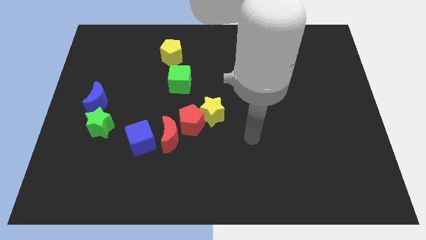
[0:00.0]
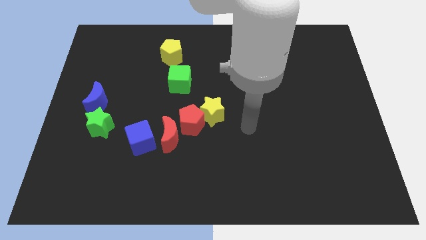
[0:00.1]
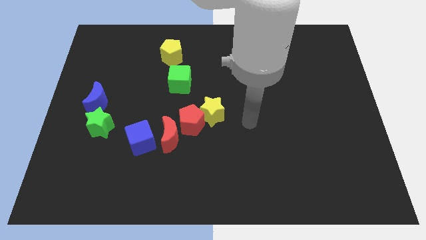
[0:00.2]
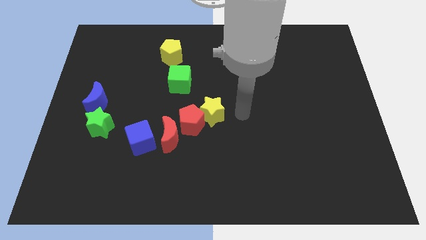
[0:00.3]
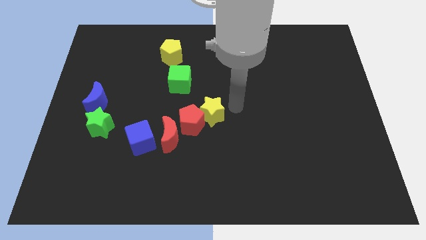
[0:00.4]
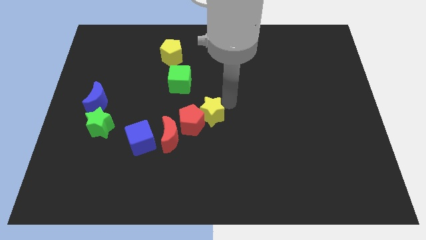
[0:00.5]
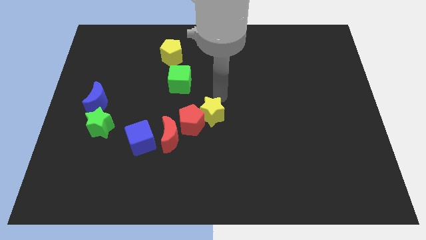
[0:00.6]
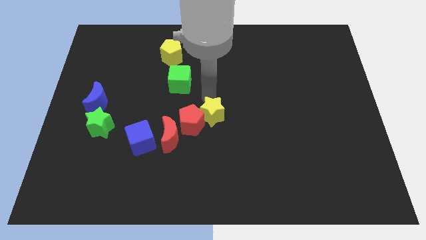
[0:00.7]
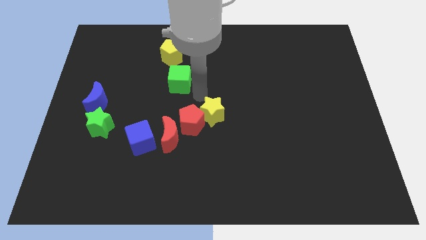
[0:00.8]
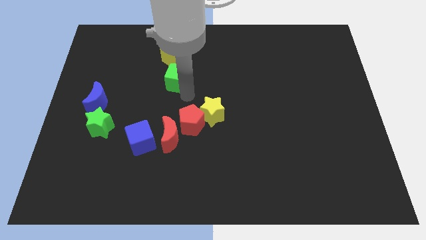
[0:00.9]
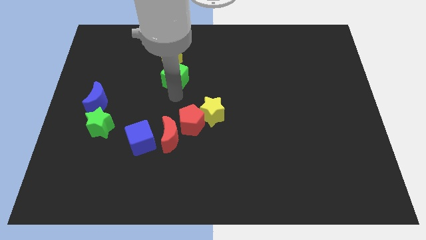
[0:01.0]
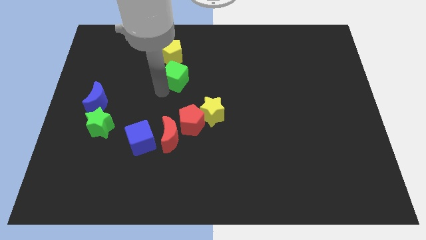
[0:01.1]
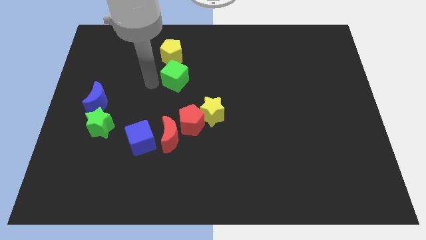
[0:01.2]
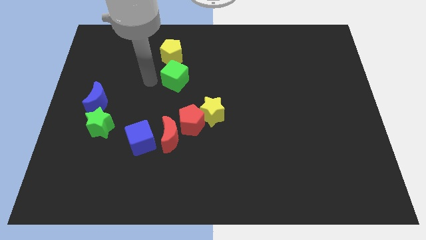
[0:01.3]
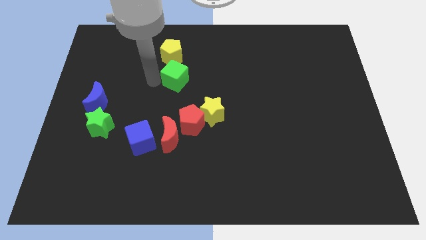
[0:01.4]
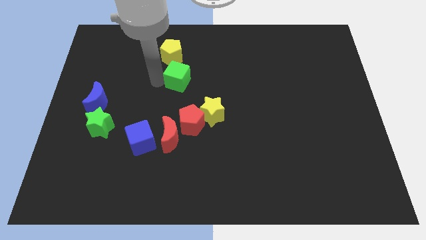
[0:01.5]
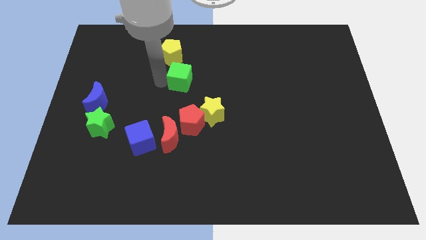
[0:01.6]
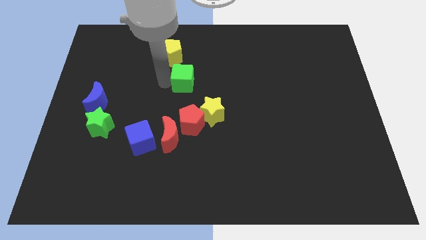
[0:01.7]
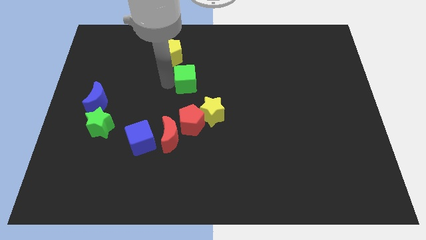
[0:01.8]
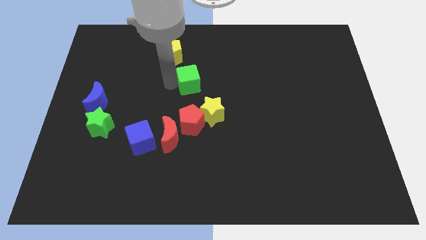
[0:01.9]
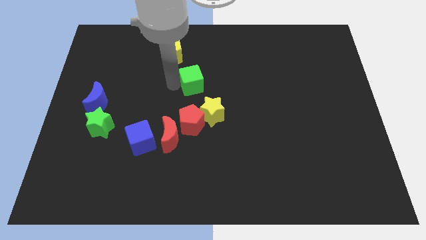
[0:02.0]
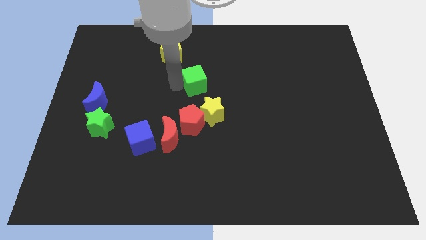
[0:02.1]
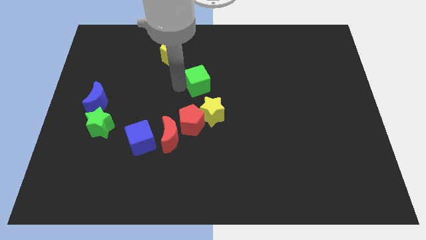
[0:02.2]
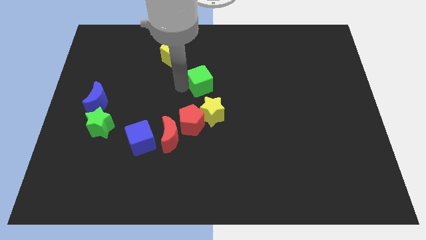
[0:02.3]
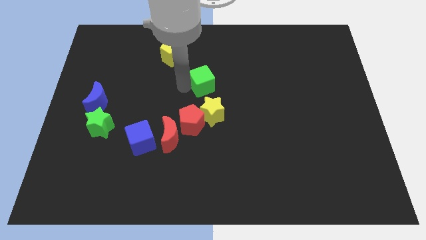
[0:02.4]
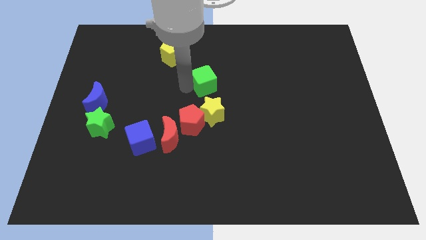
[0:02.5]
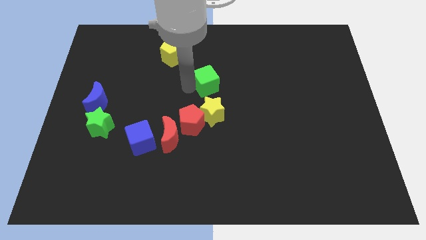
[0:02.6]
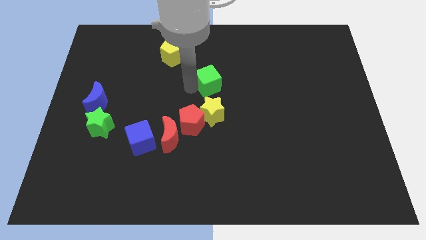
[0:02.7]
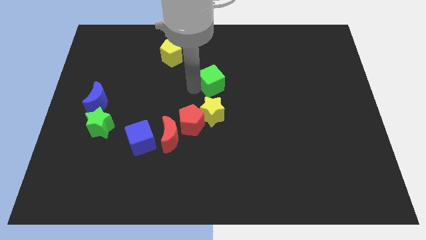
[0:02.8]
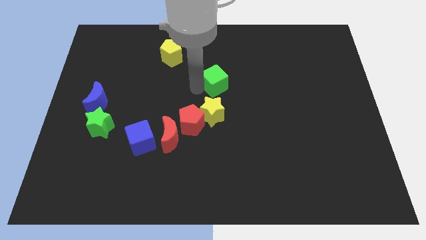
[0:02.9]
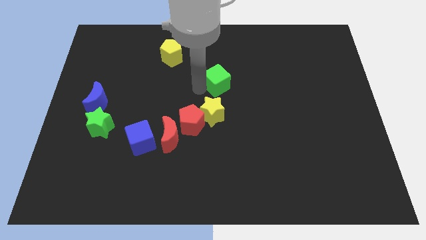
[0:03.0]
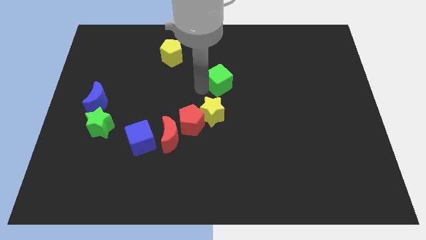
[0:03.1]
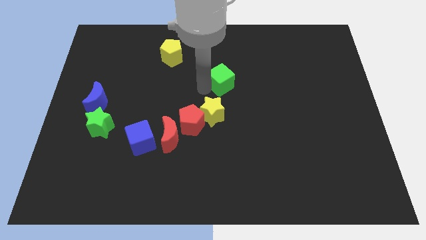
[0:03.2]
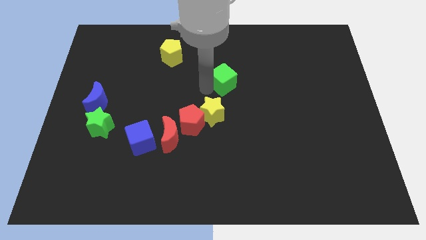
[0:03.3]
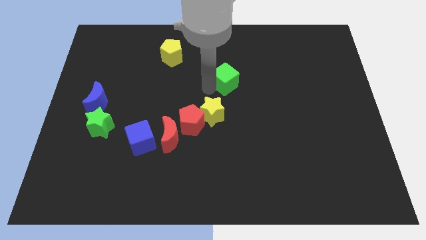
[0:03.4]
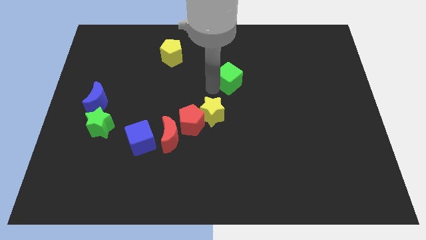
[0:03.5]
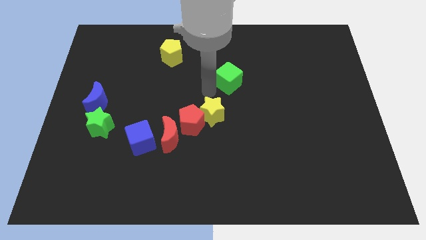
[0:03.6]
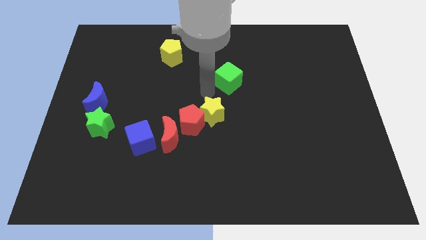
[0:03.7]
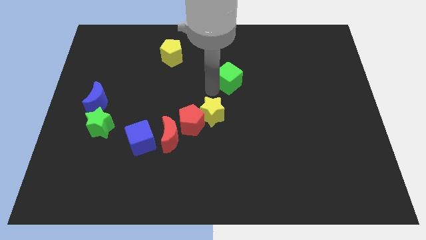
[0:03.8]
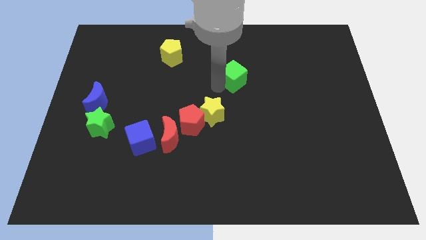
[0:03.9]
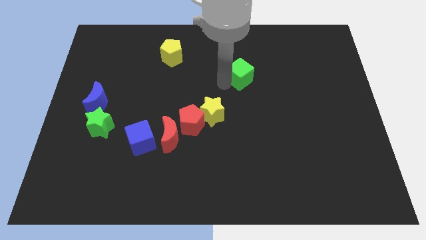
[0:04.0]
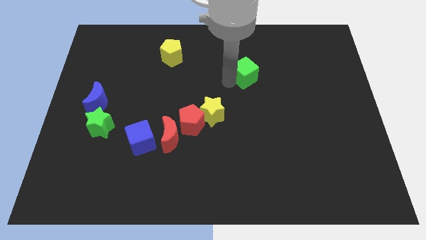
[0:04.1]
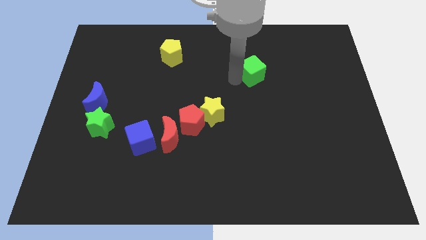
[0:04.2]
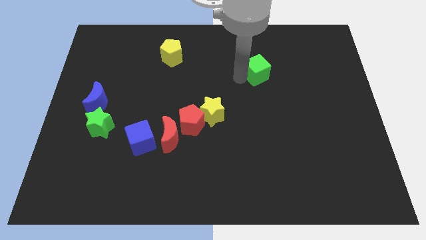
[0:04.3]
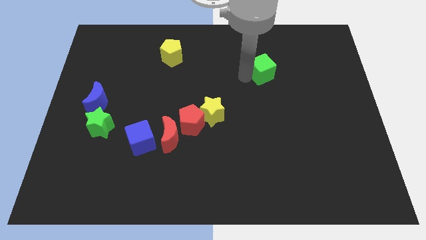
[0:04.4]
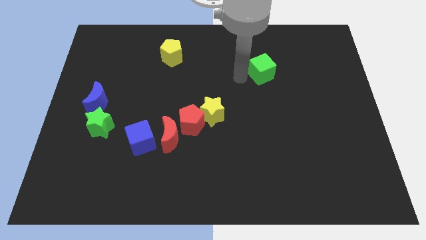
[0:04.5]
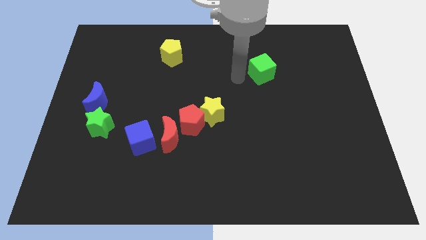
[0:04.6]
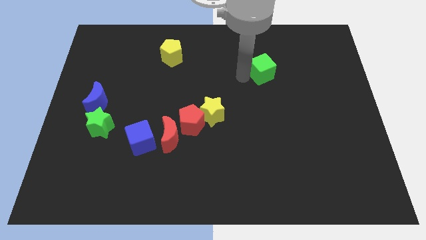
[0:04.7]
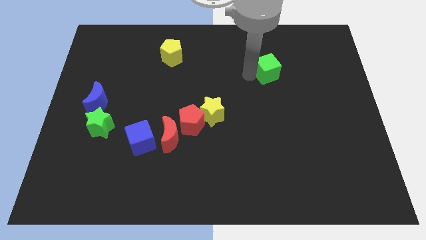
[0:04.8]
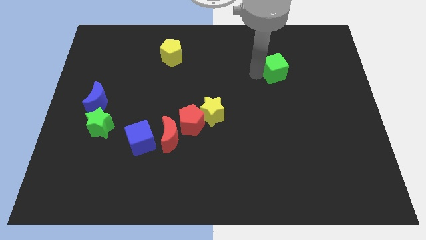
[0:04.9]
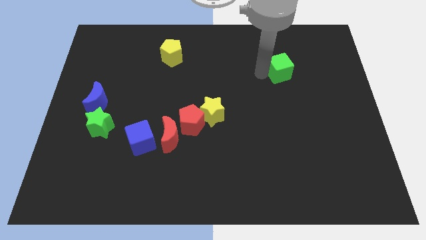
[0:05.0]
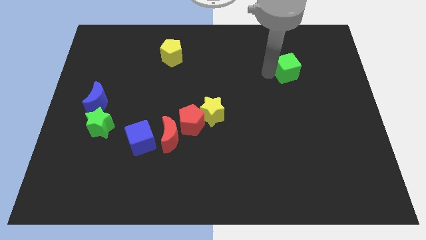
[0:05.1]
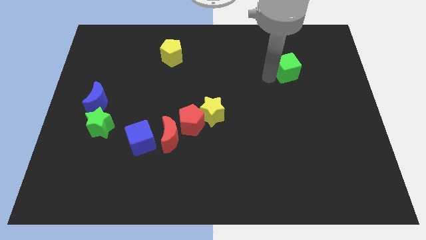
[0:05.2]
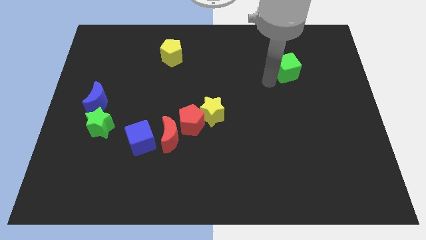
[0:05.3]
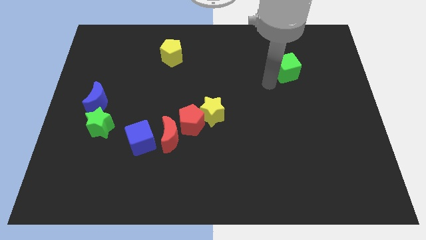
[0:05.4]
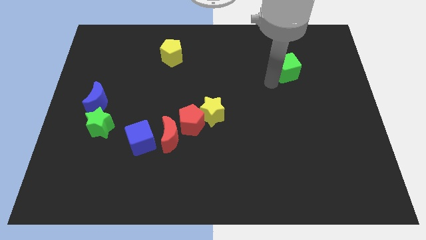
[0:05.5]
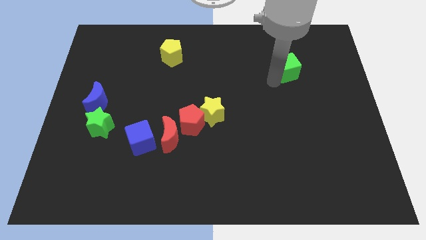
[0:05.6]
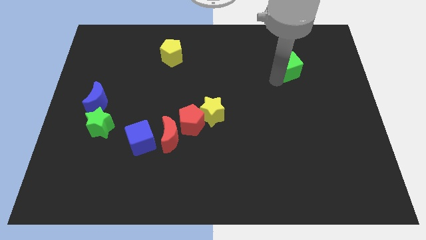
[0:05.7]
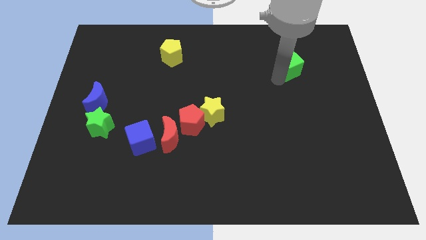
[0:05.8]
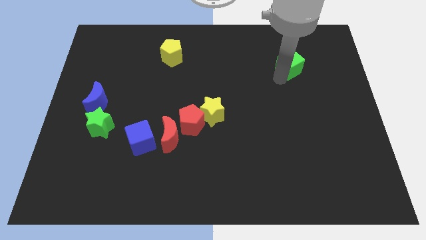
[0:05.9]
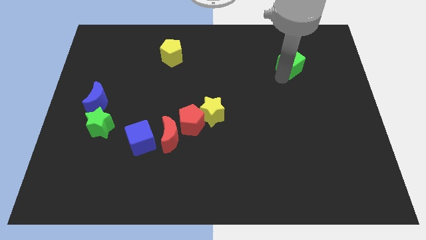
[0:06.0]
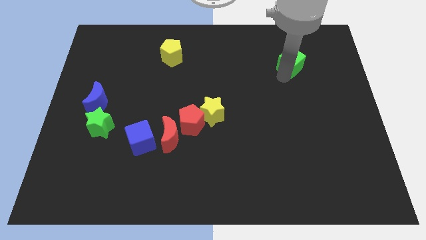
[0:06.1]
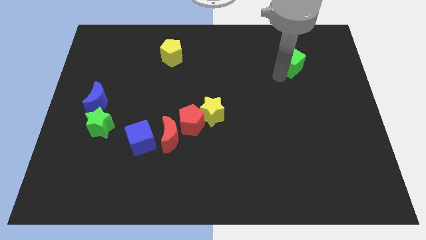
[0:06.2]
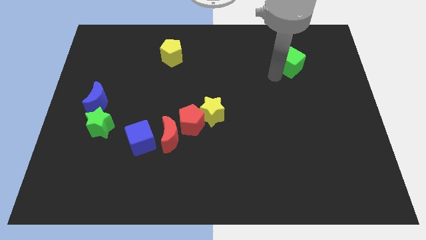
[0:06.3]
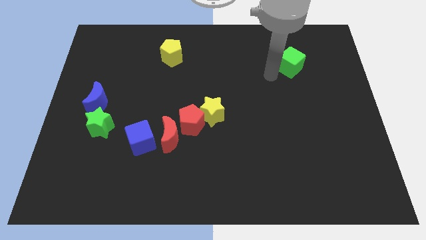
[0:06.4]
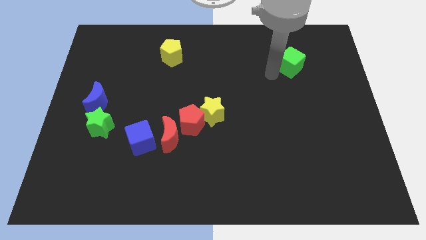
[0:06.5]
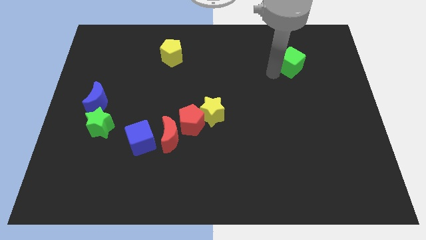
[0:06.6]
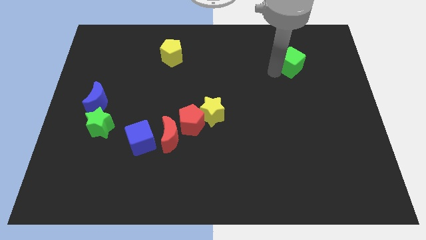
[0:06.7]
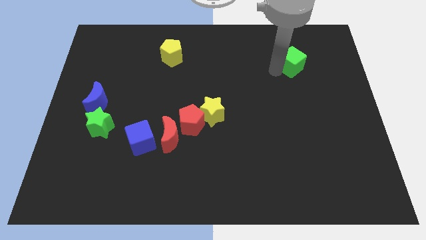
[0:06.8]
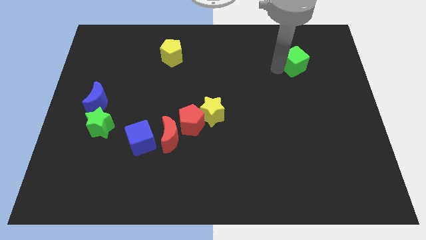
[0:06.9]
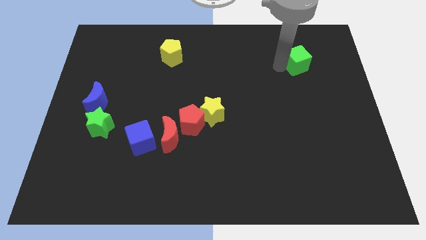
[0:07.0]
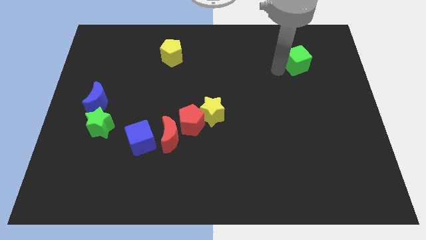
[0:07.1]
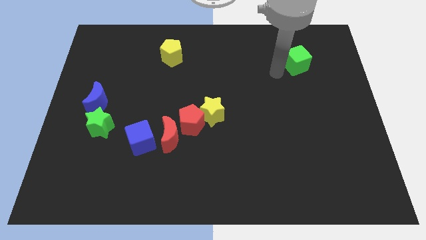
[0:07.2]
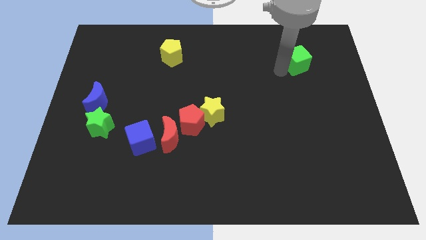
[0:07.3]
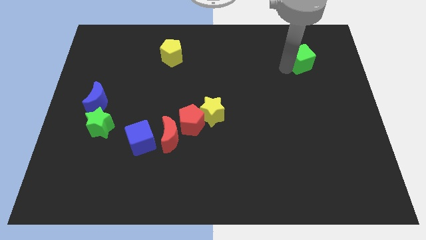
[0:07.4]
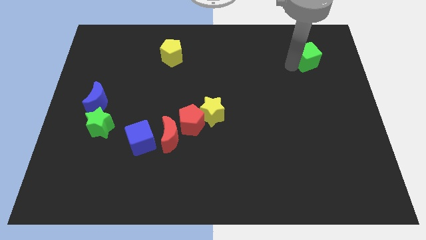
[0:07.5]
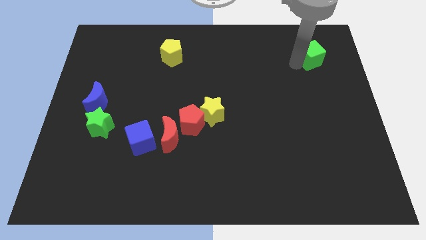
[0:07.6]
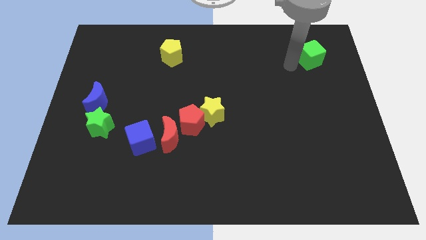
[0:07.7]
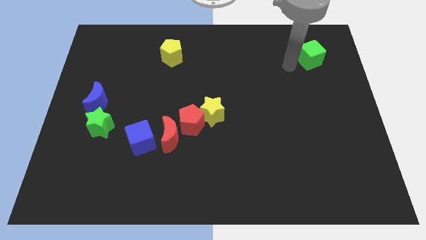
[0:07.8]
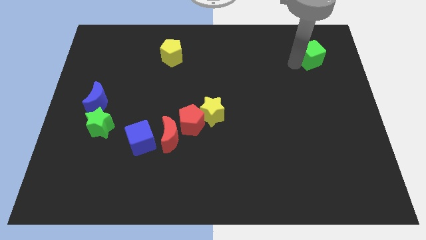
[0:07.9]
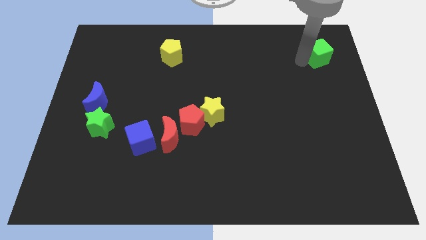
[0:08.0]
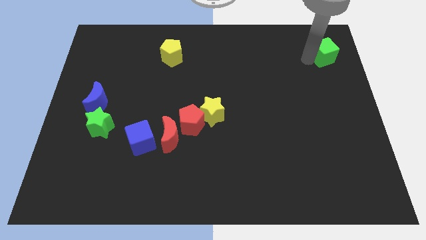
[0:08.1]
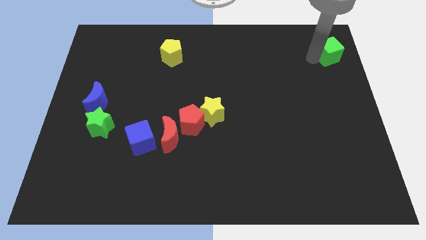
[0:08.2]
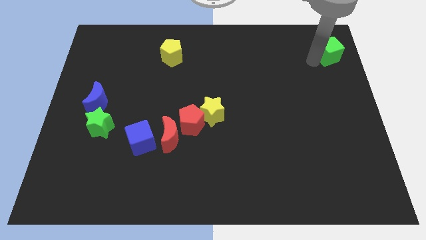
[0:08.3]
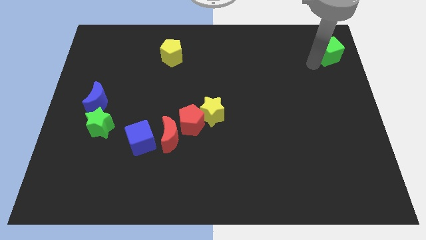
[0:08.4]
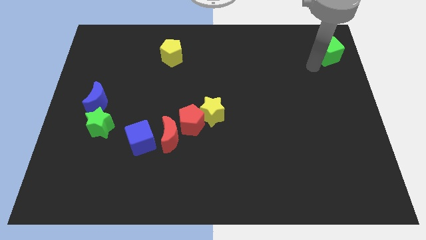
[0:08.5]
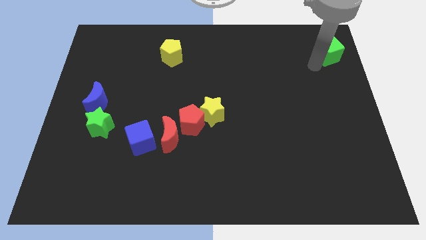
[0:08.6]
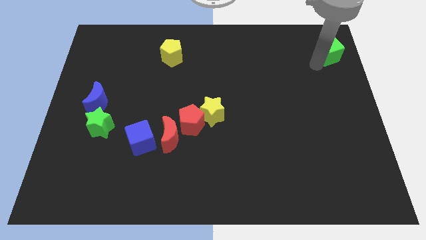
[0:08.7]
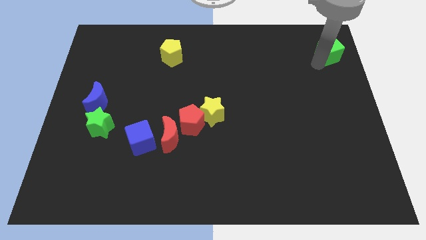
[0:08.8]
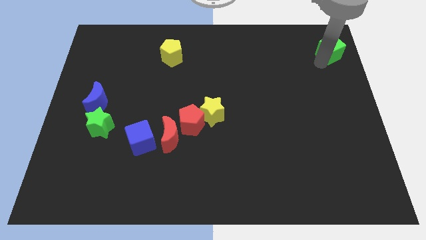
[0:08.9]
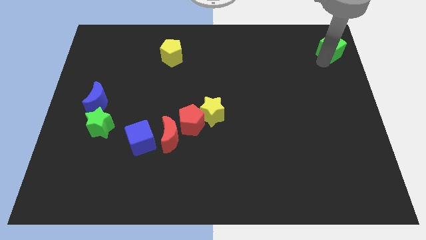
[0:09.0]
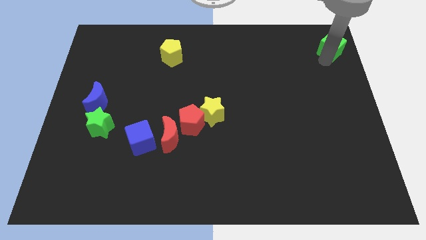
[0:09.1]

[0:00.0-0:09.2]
put the green cube to the upper right corner
